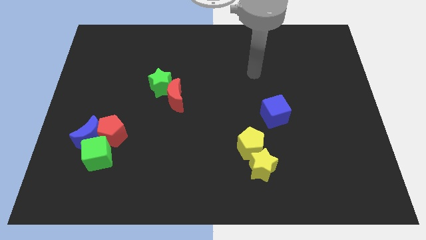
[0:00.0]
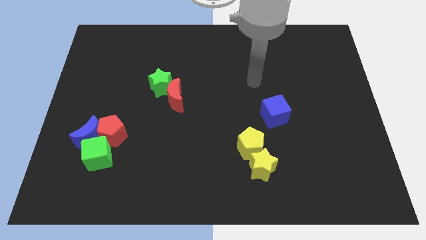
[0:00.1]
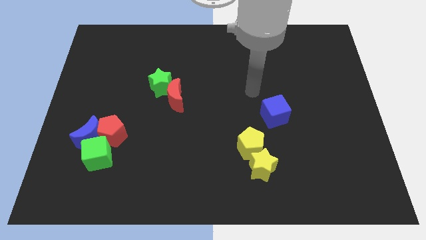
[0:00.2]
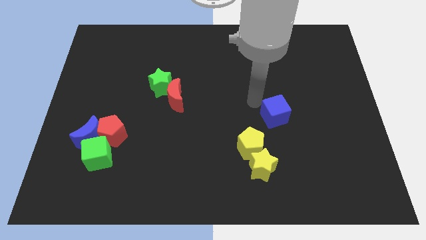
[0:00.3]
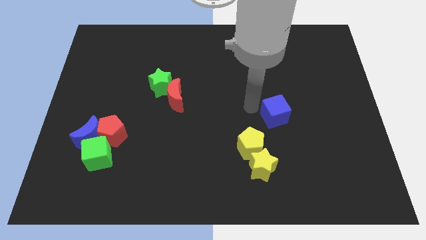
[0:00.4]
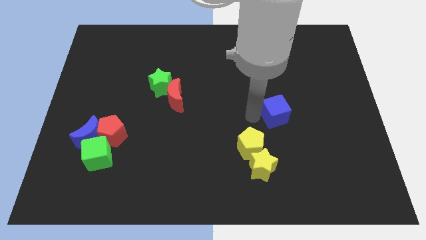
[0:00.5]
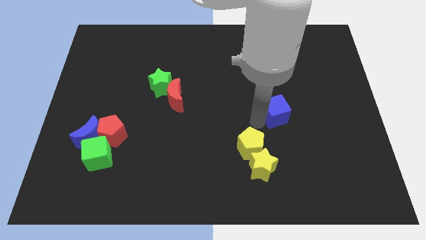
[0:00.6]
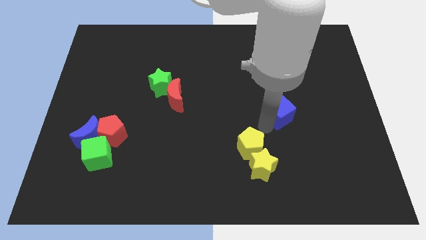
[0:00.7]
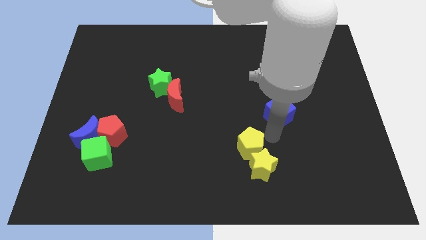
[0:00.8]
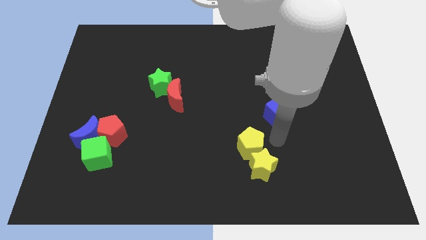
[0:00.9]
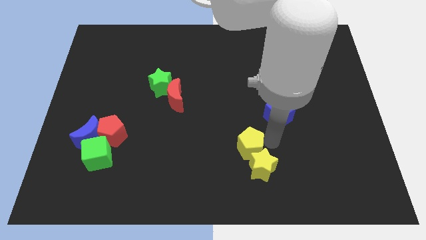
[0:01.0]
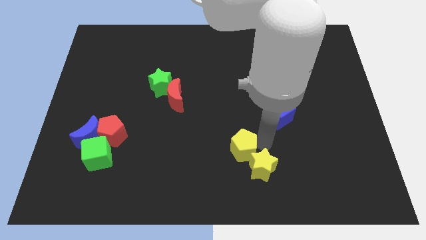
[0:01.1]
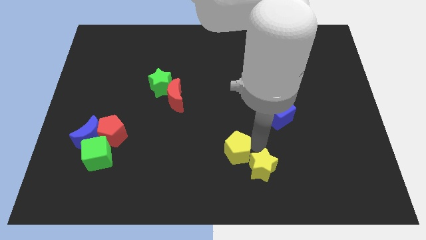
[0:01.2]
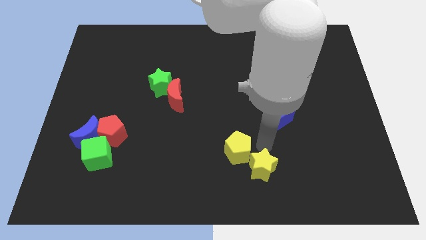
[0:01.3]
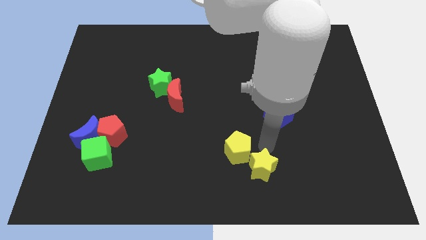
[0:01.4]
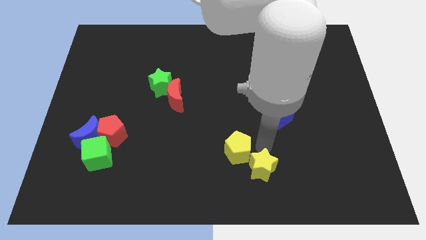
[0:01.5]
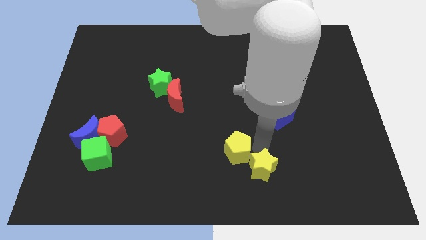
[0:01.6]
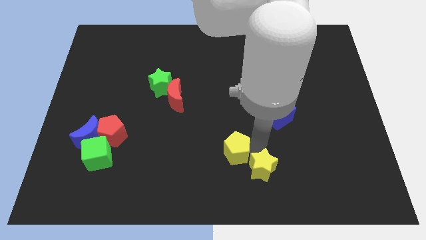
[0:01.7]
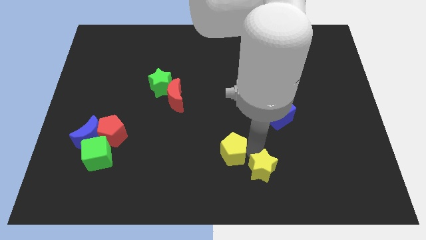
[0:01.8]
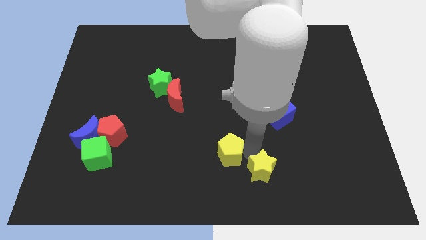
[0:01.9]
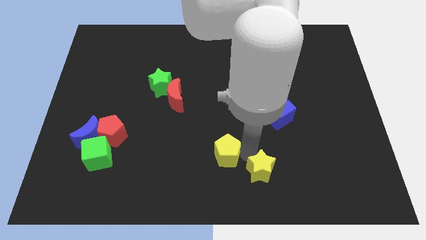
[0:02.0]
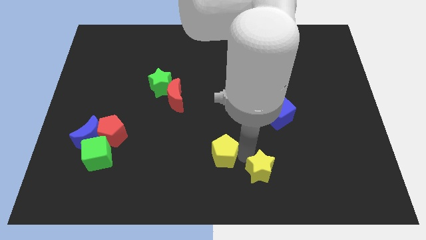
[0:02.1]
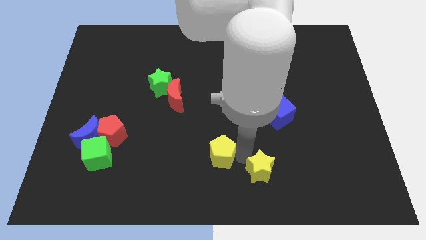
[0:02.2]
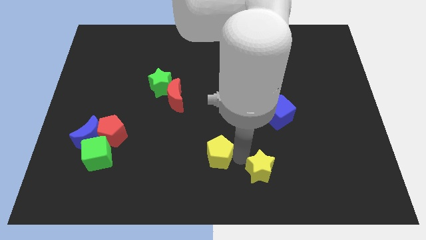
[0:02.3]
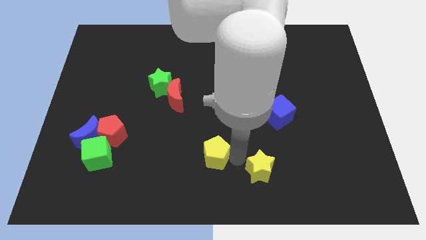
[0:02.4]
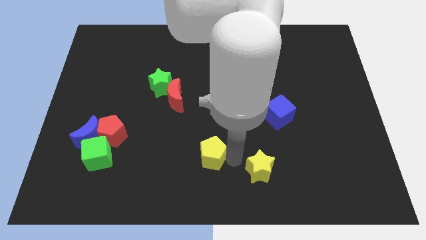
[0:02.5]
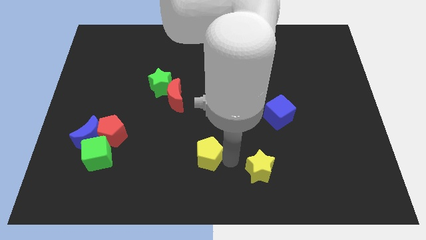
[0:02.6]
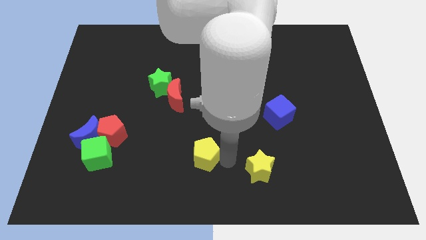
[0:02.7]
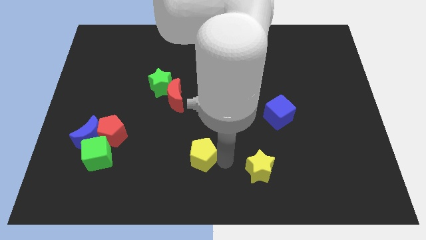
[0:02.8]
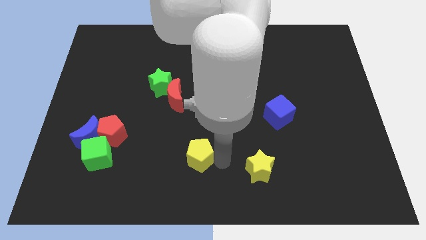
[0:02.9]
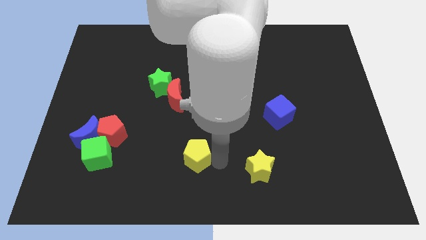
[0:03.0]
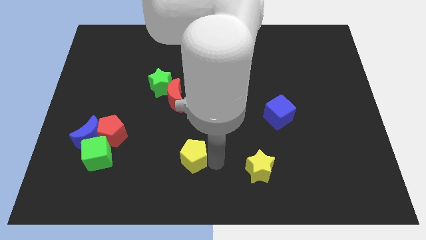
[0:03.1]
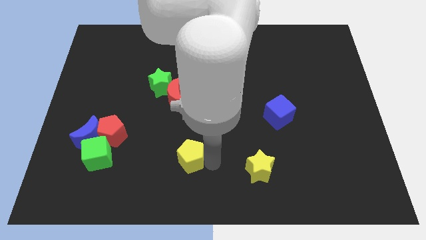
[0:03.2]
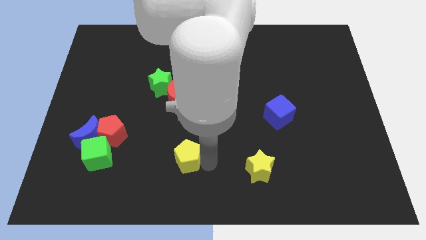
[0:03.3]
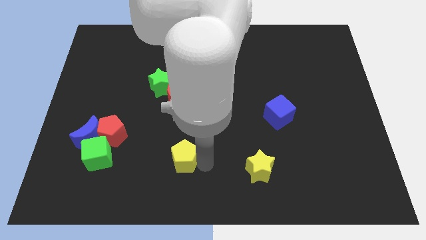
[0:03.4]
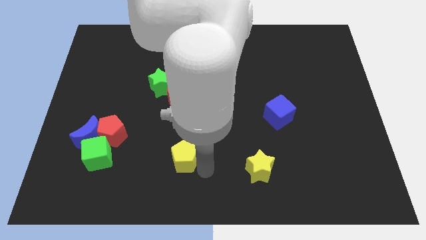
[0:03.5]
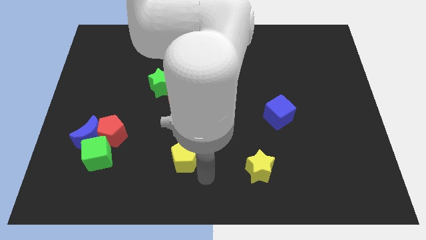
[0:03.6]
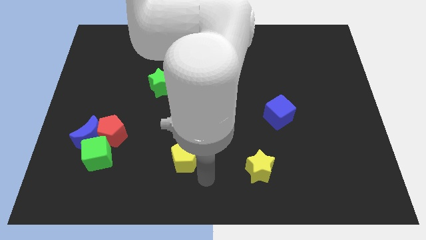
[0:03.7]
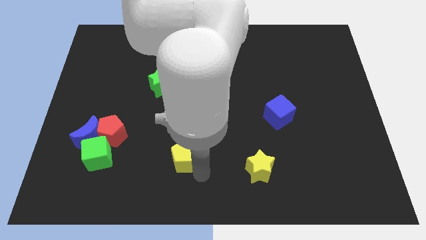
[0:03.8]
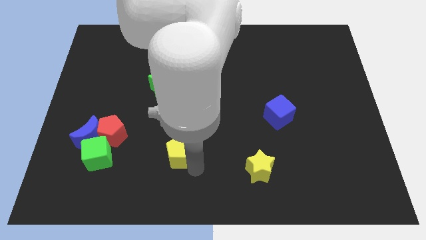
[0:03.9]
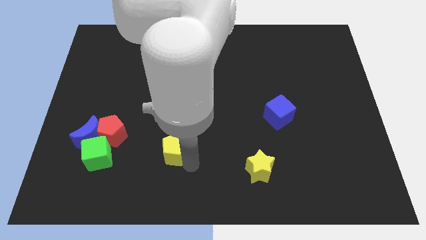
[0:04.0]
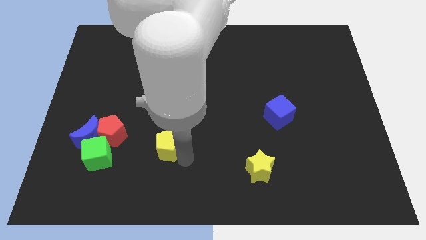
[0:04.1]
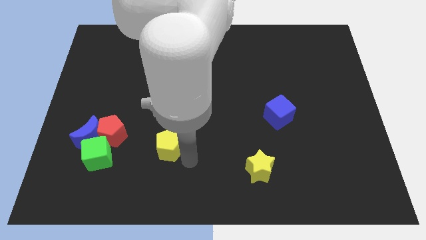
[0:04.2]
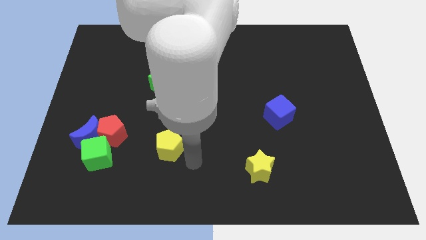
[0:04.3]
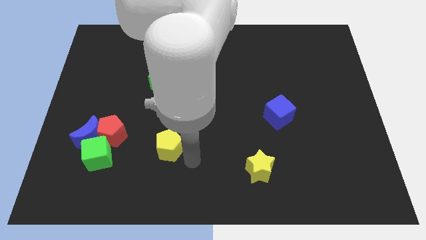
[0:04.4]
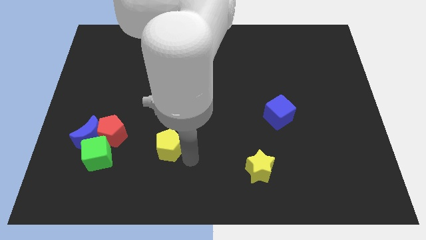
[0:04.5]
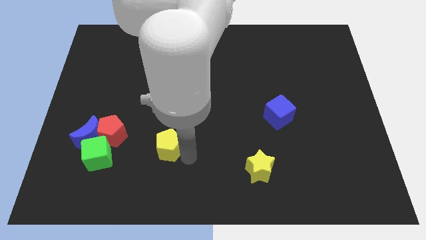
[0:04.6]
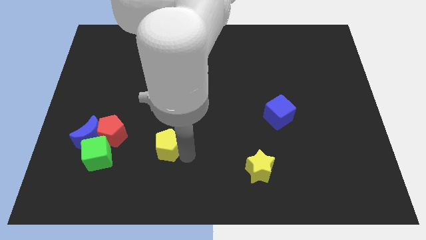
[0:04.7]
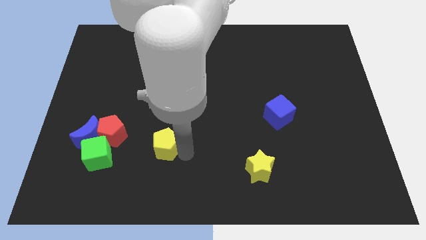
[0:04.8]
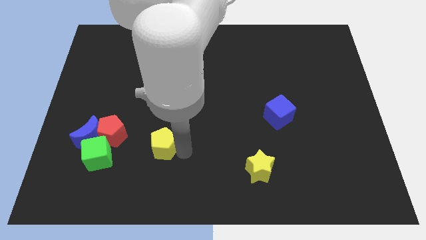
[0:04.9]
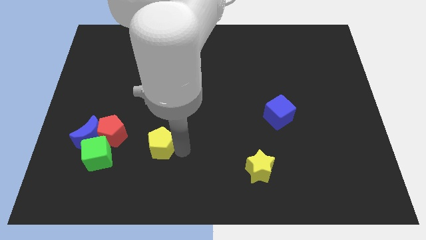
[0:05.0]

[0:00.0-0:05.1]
move the yellow pentagon just right of the blue moon

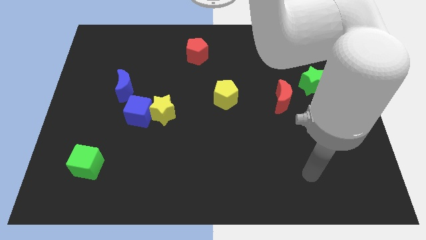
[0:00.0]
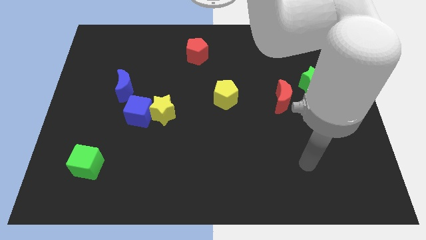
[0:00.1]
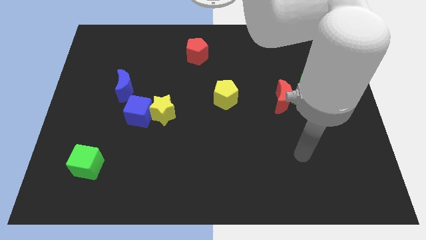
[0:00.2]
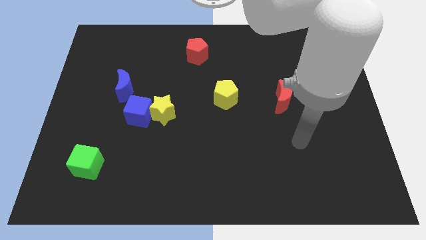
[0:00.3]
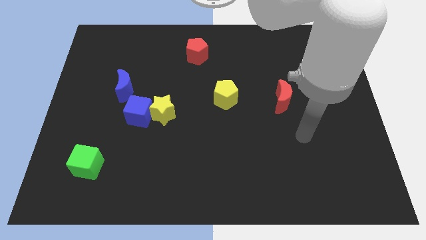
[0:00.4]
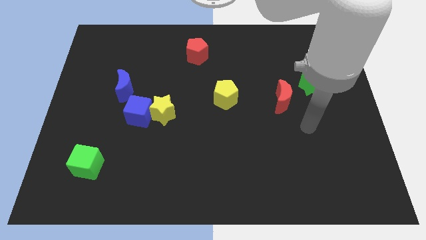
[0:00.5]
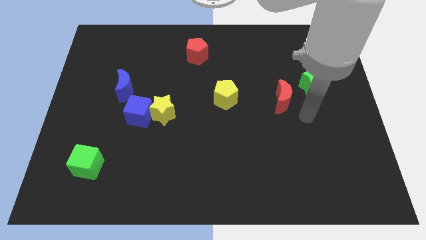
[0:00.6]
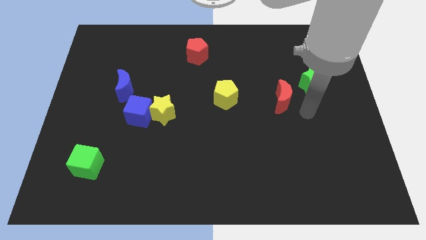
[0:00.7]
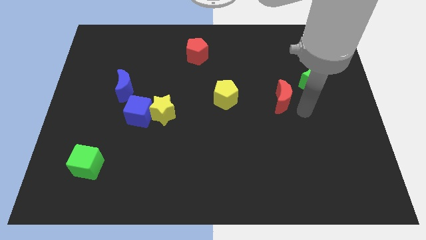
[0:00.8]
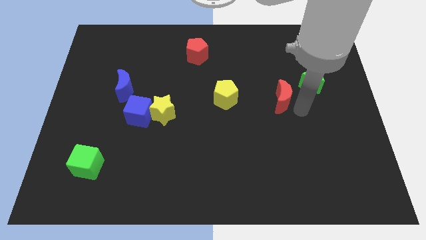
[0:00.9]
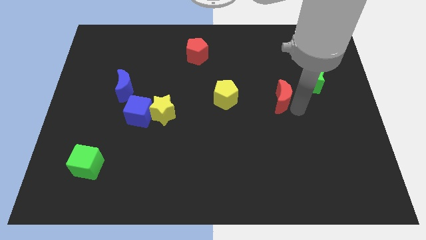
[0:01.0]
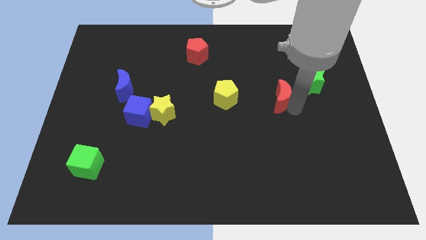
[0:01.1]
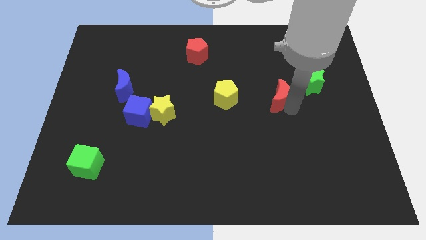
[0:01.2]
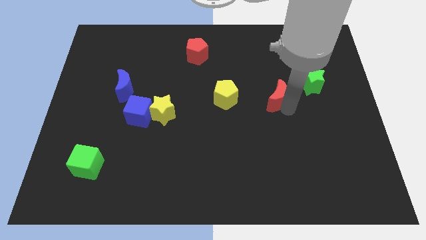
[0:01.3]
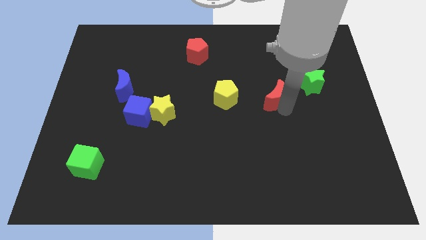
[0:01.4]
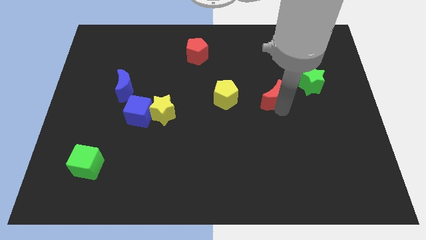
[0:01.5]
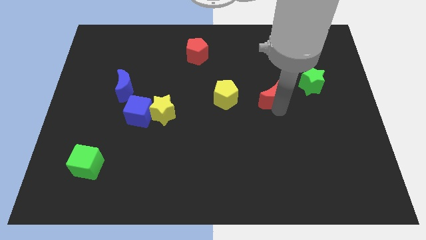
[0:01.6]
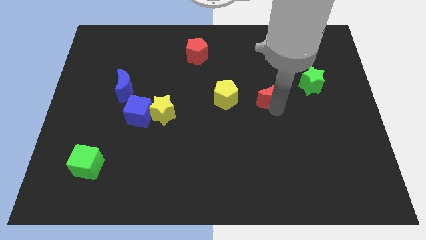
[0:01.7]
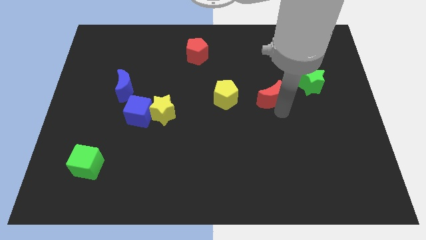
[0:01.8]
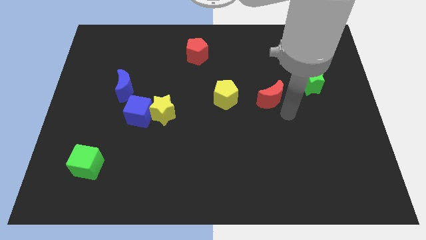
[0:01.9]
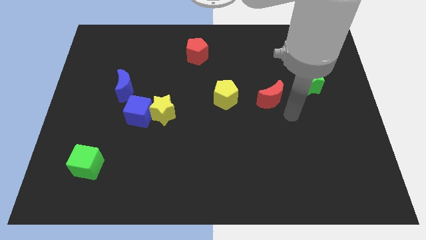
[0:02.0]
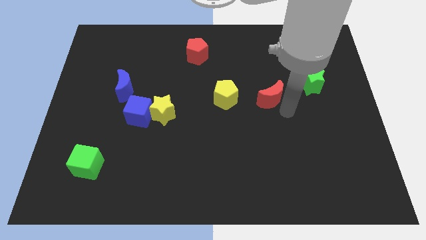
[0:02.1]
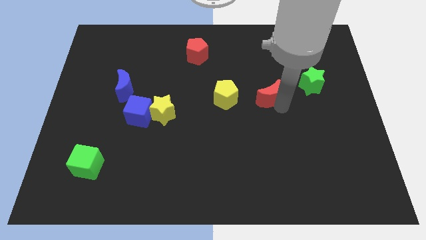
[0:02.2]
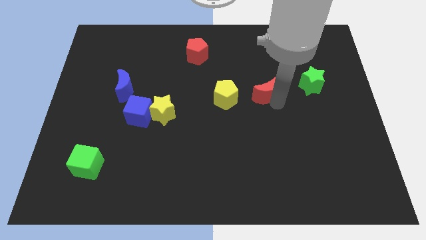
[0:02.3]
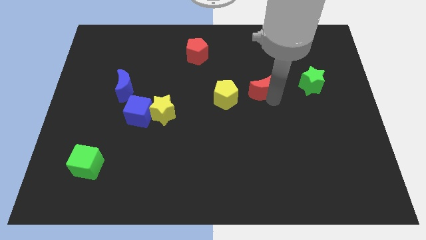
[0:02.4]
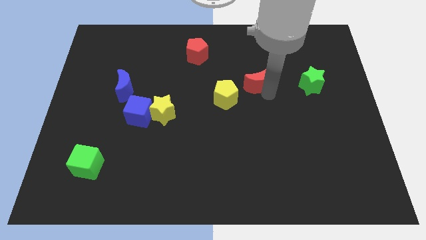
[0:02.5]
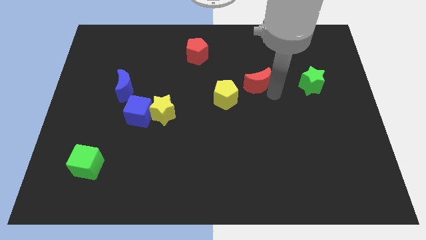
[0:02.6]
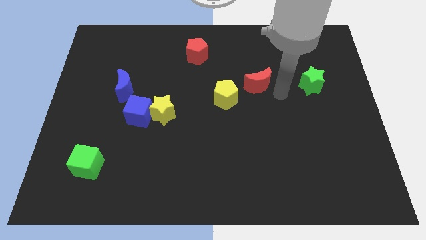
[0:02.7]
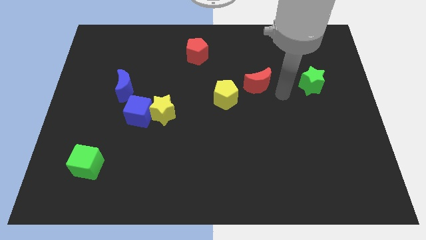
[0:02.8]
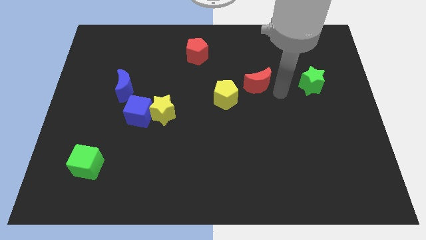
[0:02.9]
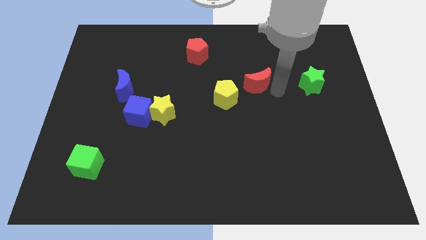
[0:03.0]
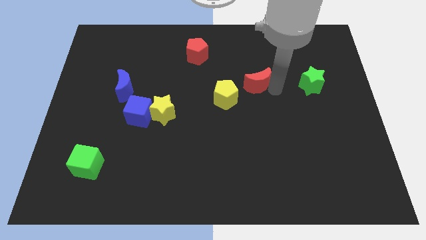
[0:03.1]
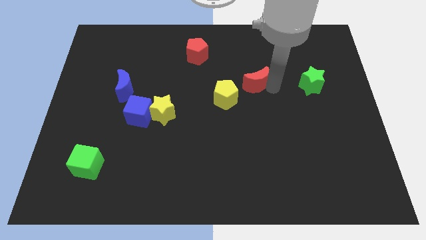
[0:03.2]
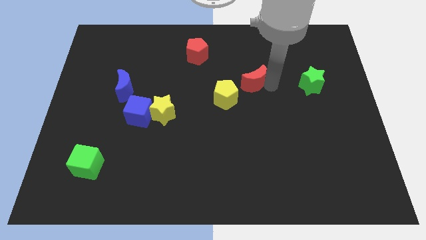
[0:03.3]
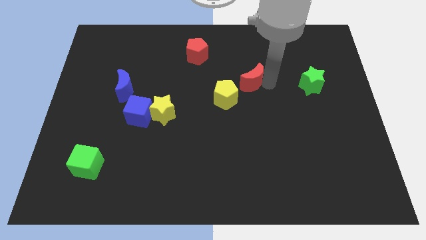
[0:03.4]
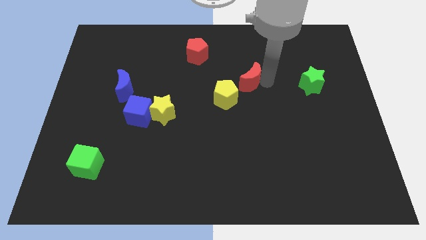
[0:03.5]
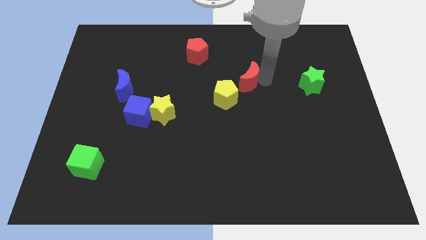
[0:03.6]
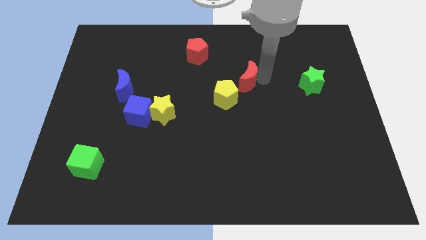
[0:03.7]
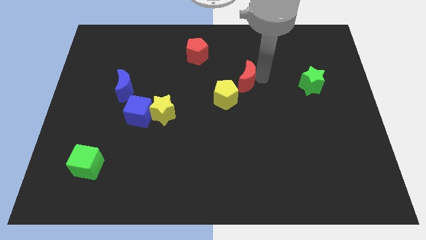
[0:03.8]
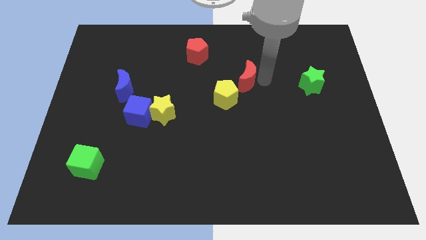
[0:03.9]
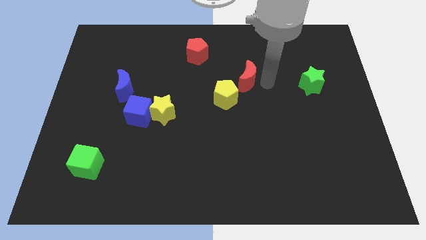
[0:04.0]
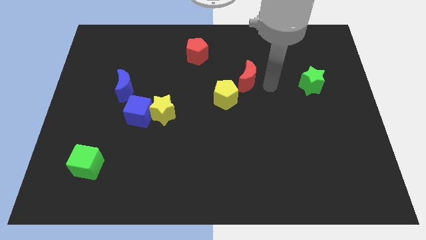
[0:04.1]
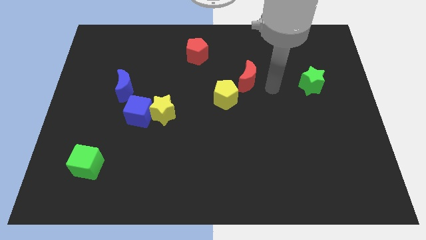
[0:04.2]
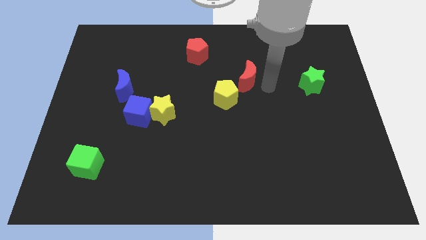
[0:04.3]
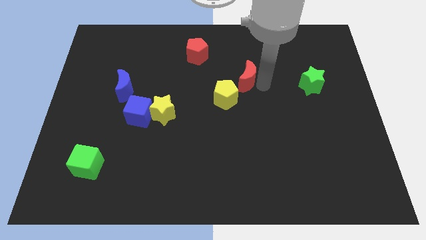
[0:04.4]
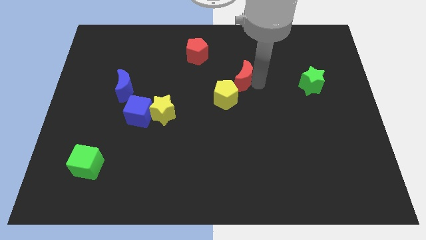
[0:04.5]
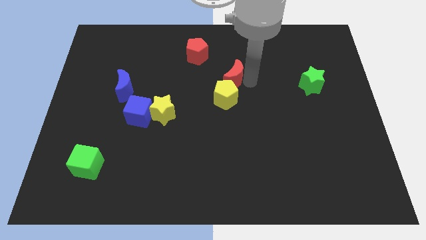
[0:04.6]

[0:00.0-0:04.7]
move the red moon diagonally down and to the right of the red pentagon
